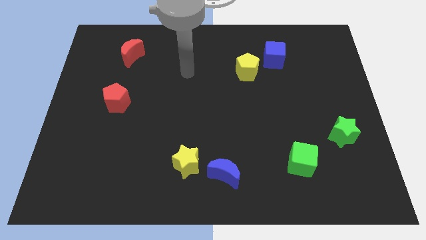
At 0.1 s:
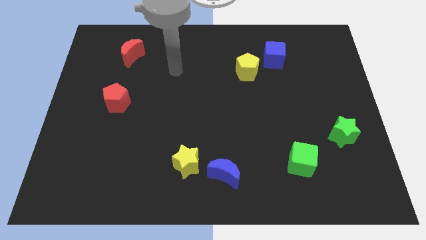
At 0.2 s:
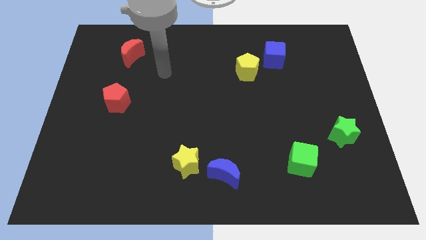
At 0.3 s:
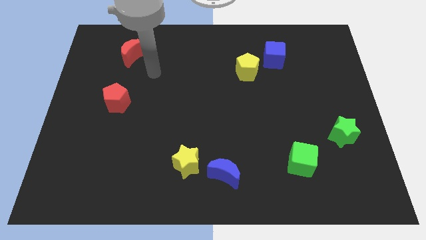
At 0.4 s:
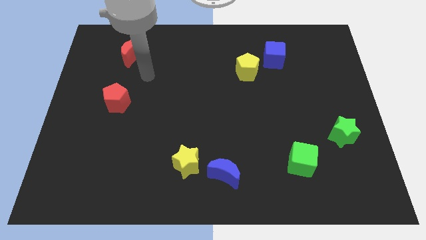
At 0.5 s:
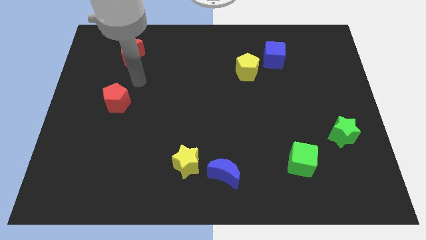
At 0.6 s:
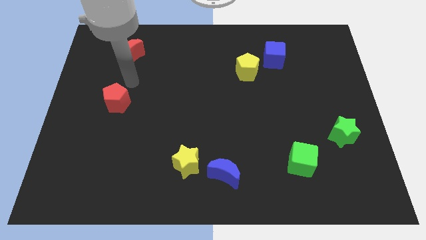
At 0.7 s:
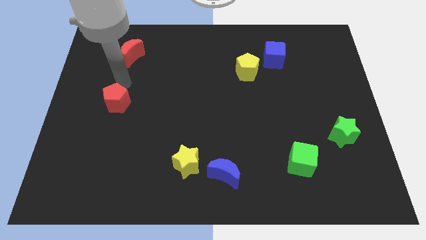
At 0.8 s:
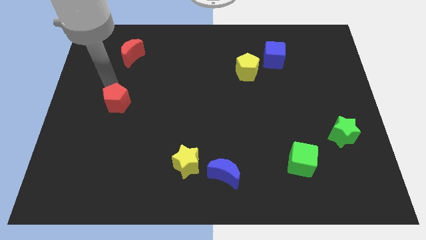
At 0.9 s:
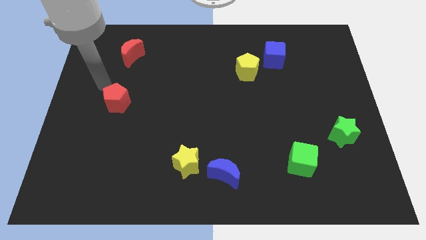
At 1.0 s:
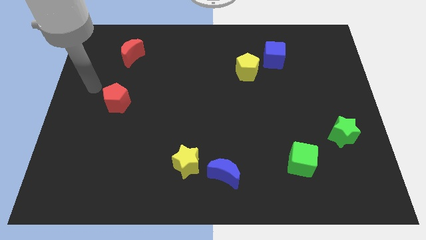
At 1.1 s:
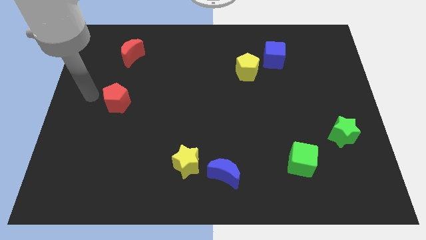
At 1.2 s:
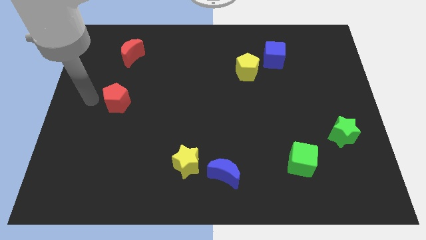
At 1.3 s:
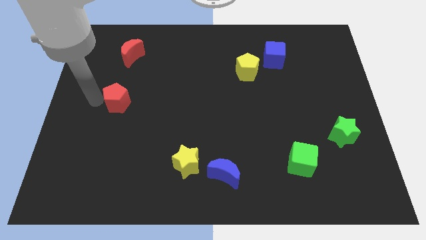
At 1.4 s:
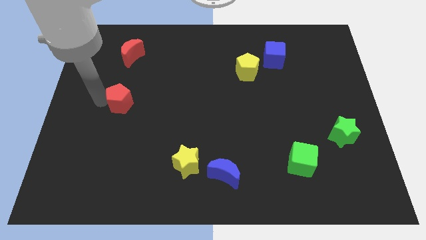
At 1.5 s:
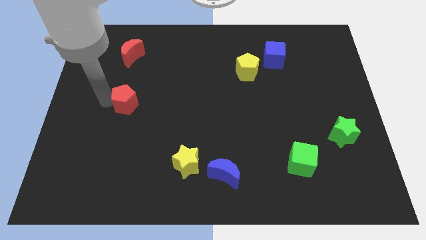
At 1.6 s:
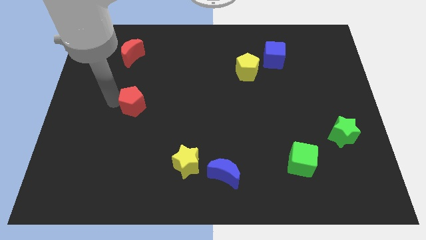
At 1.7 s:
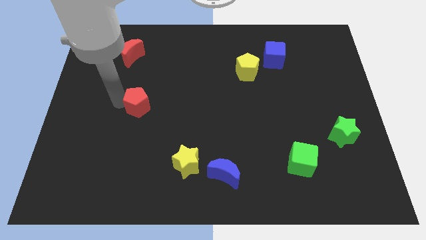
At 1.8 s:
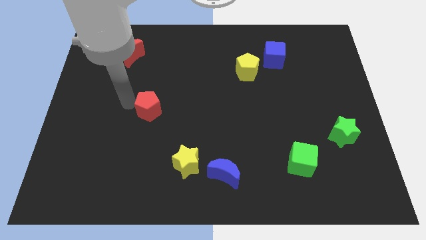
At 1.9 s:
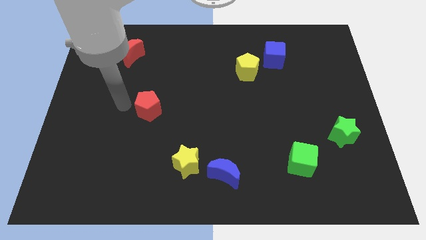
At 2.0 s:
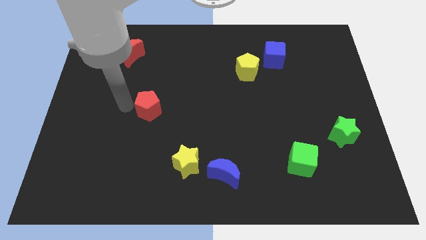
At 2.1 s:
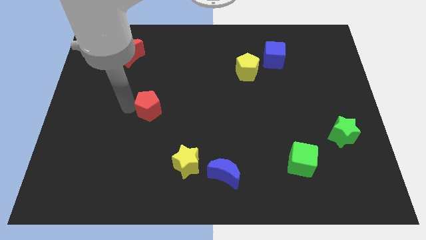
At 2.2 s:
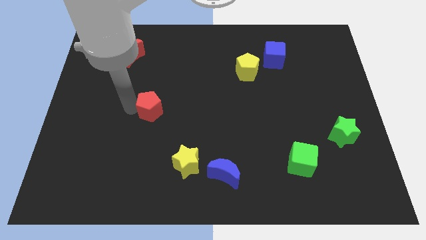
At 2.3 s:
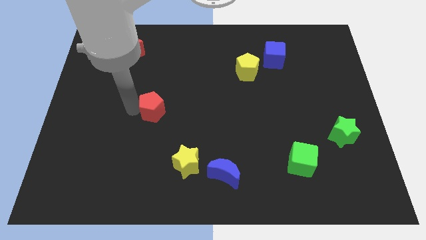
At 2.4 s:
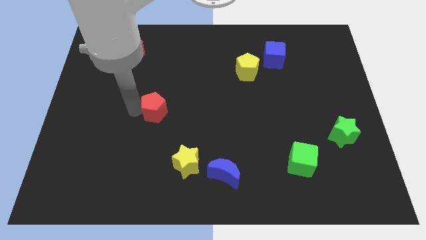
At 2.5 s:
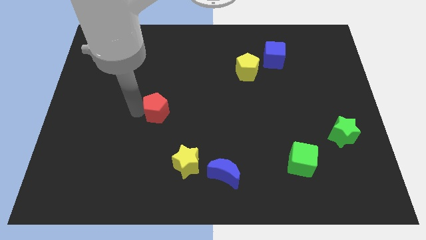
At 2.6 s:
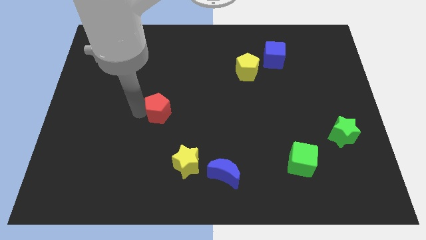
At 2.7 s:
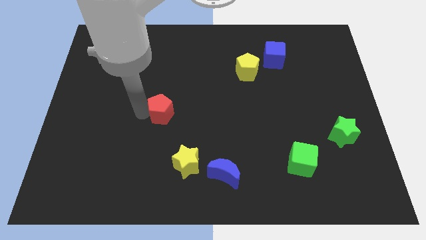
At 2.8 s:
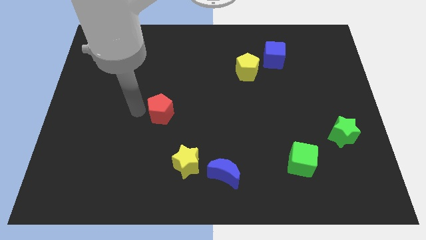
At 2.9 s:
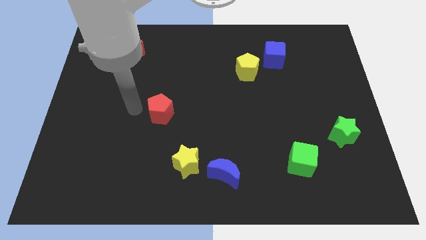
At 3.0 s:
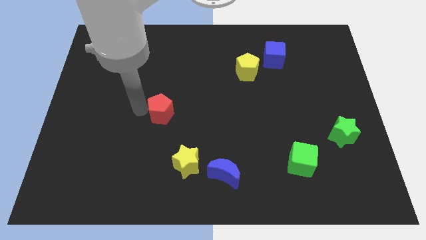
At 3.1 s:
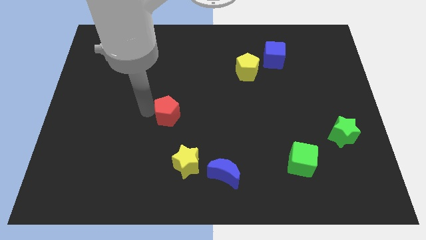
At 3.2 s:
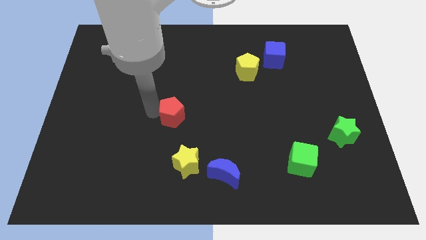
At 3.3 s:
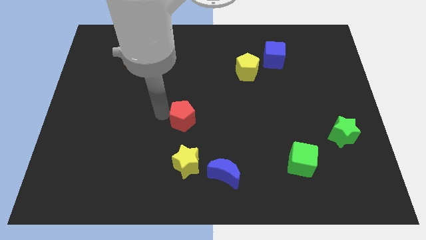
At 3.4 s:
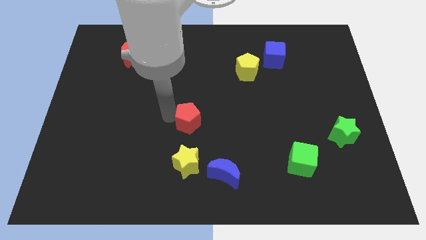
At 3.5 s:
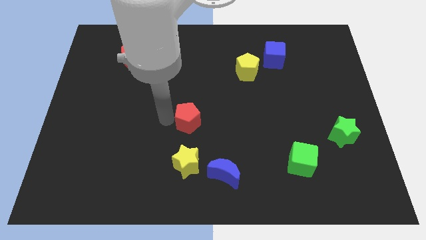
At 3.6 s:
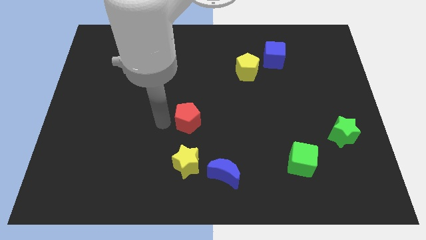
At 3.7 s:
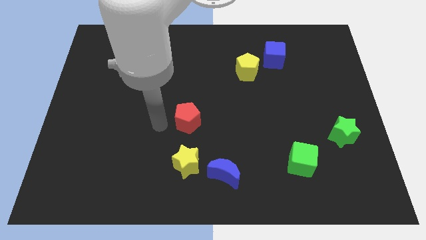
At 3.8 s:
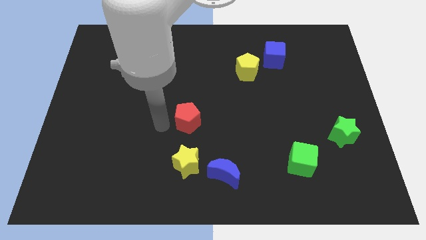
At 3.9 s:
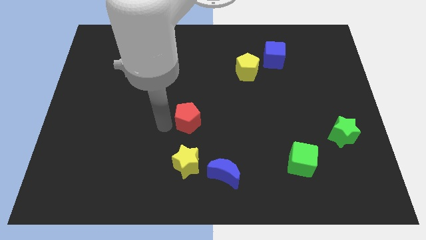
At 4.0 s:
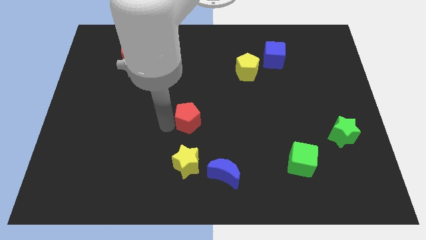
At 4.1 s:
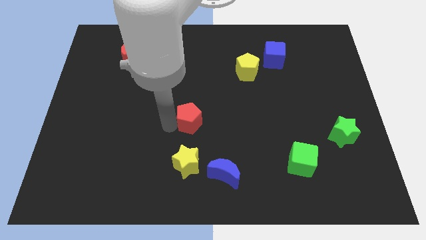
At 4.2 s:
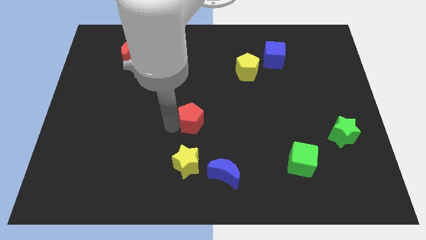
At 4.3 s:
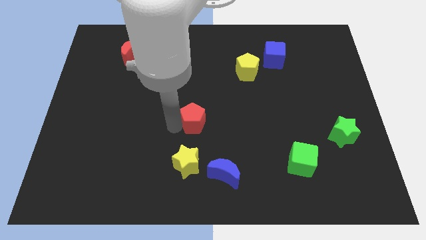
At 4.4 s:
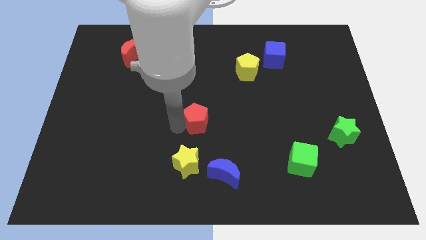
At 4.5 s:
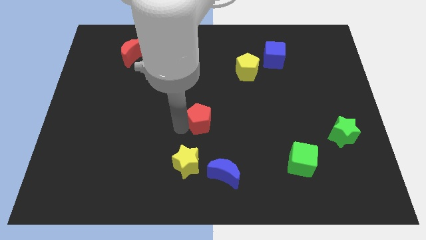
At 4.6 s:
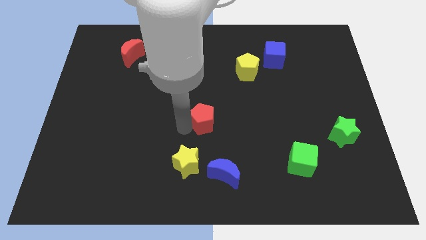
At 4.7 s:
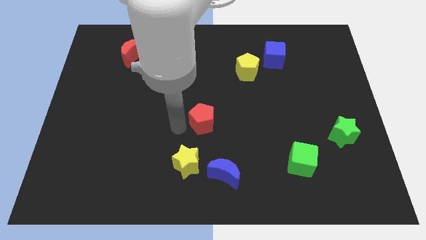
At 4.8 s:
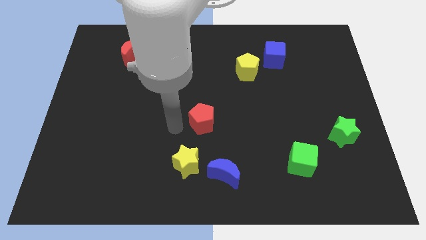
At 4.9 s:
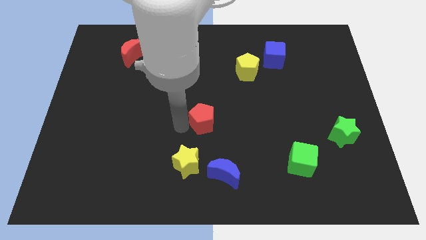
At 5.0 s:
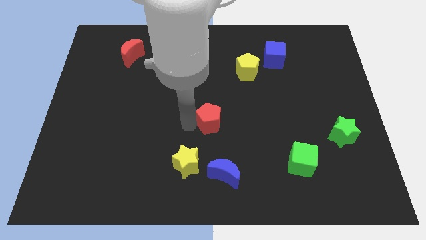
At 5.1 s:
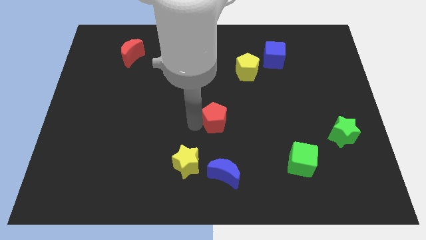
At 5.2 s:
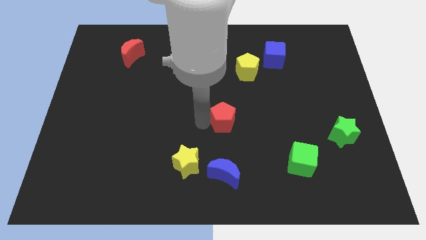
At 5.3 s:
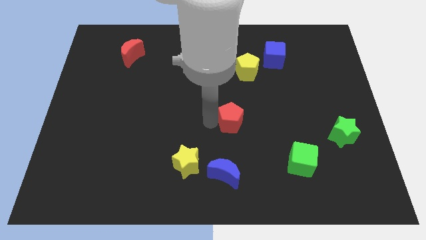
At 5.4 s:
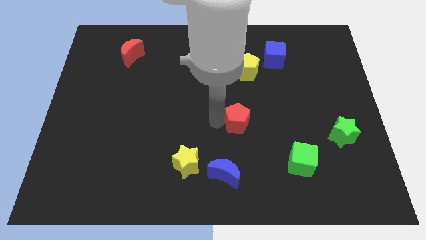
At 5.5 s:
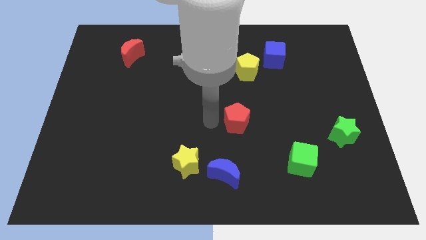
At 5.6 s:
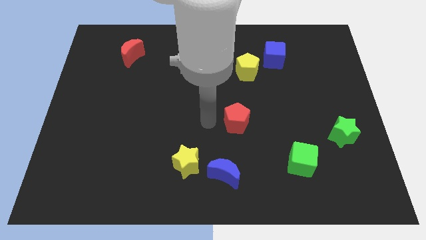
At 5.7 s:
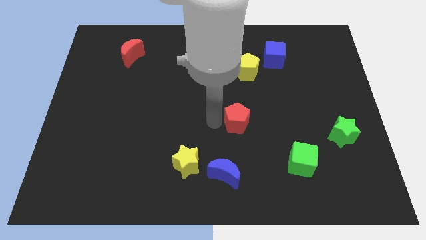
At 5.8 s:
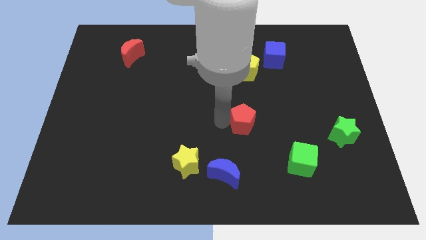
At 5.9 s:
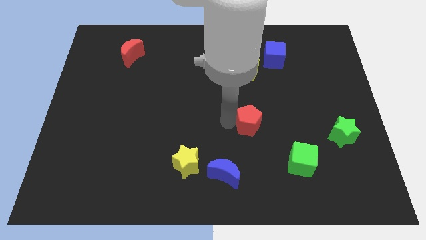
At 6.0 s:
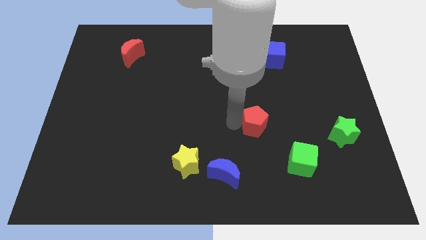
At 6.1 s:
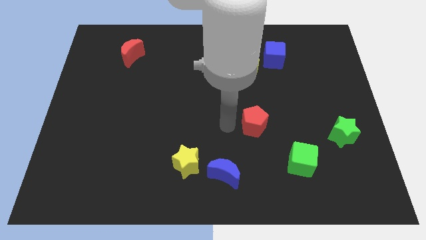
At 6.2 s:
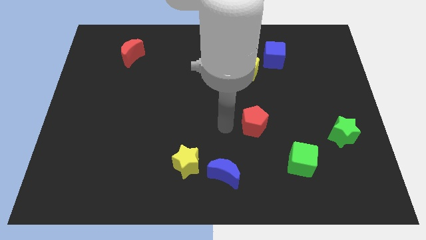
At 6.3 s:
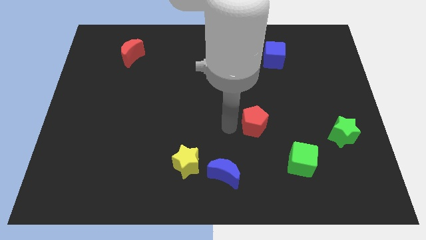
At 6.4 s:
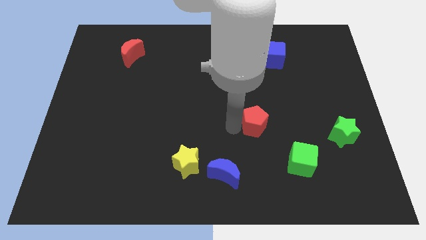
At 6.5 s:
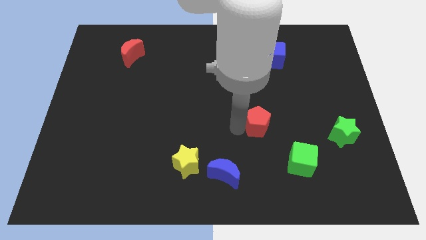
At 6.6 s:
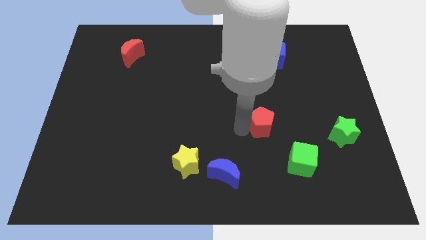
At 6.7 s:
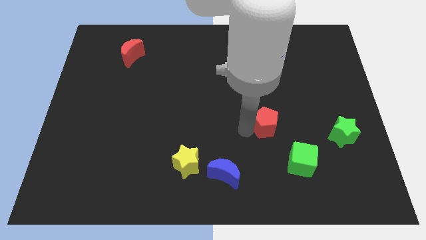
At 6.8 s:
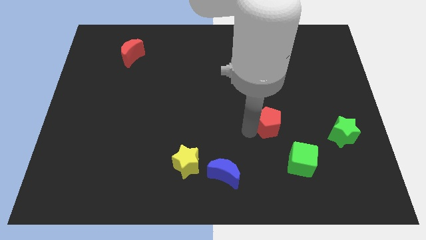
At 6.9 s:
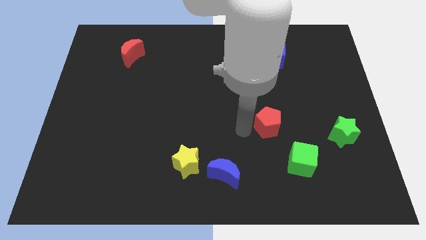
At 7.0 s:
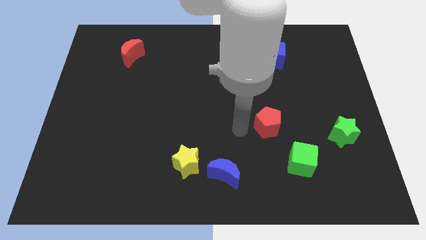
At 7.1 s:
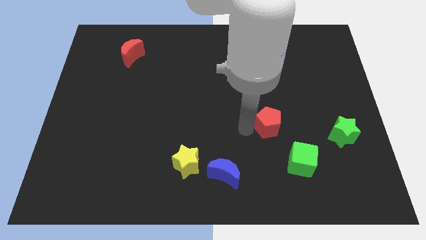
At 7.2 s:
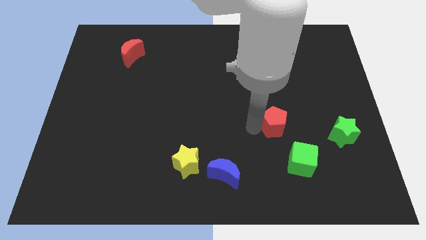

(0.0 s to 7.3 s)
push the red pentagon above the green cube
